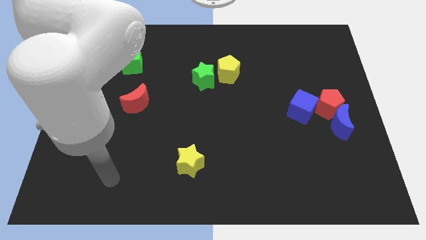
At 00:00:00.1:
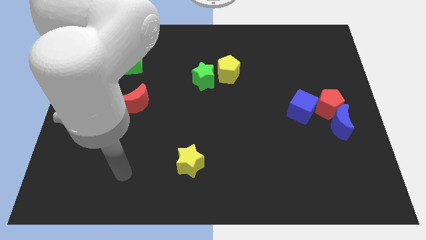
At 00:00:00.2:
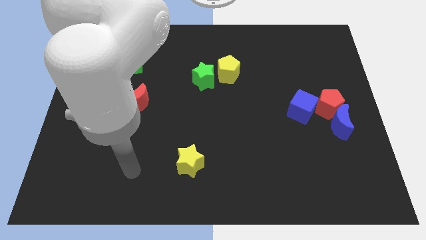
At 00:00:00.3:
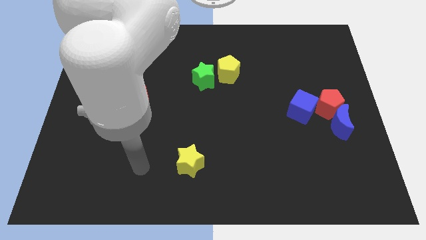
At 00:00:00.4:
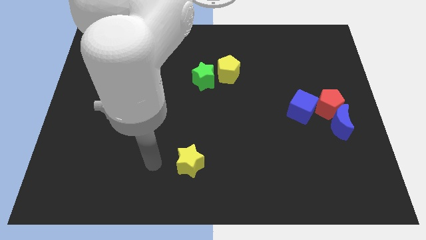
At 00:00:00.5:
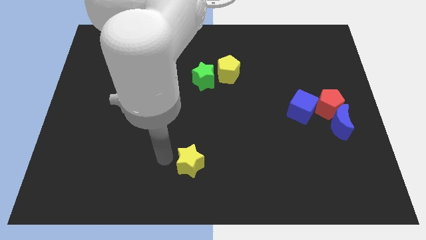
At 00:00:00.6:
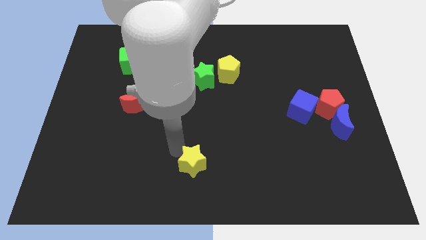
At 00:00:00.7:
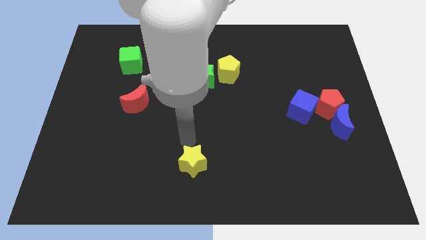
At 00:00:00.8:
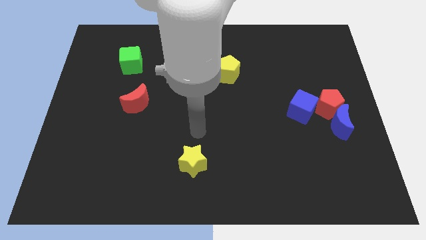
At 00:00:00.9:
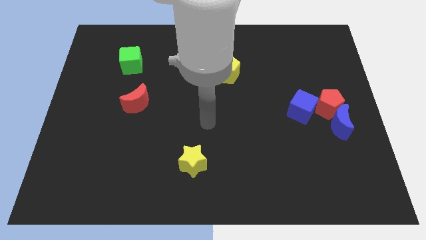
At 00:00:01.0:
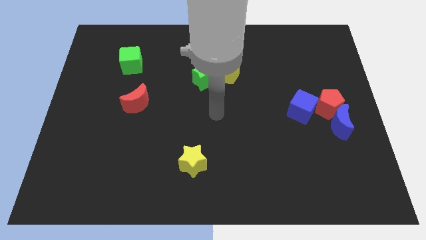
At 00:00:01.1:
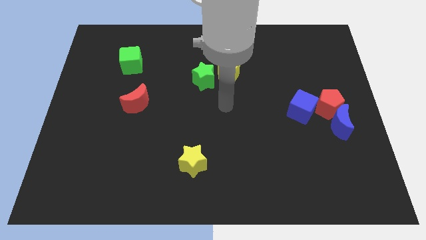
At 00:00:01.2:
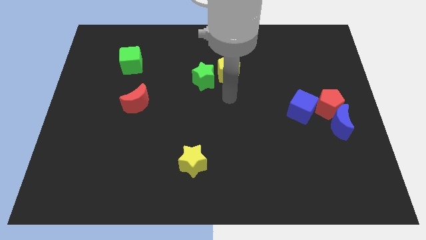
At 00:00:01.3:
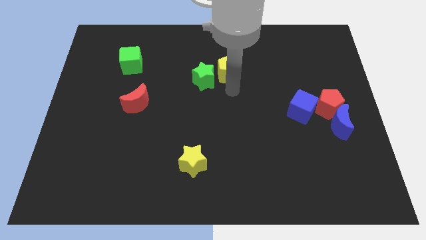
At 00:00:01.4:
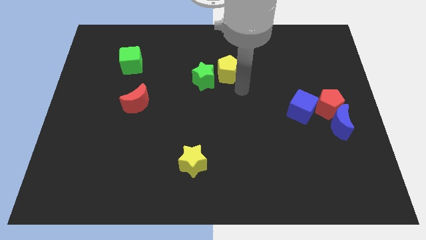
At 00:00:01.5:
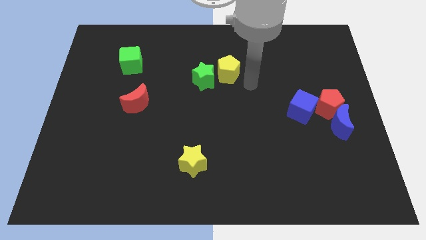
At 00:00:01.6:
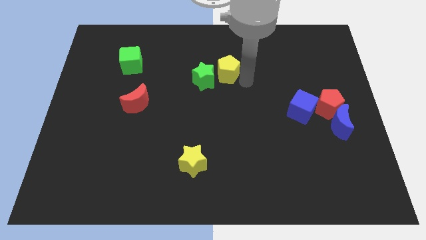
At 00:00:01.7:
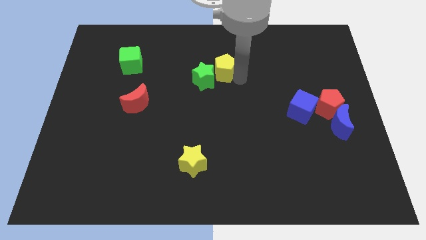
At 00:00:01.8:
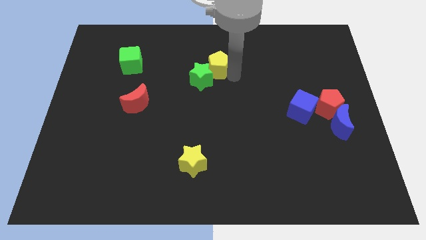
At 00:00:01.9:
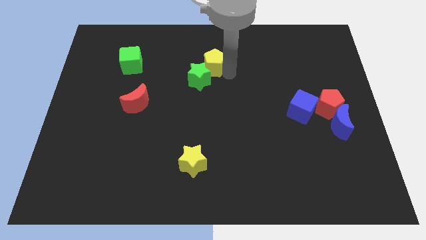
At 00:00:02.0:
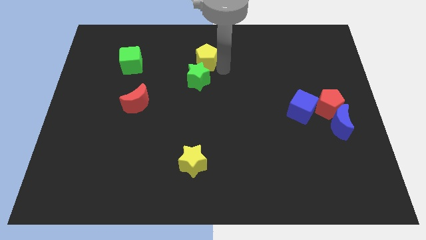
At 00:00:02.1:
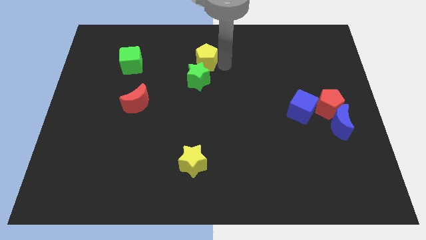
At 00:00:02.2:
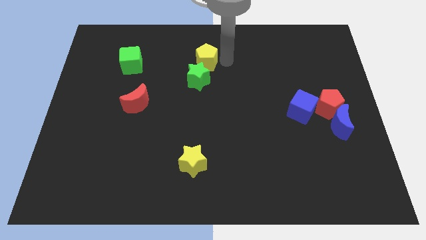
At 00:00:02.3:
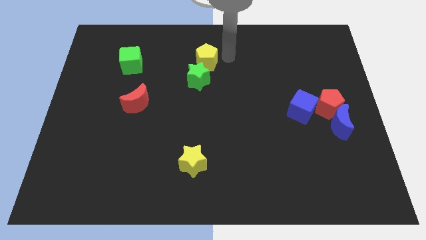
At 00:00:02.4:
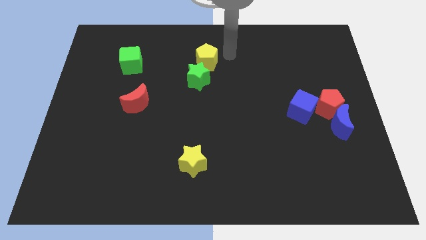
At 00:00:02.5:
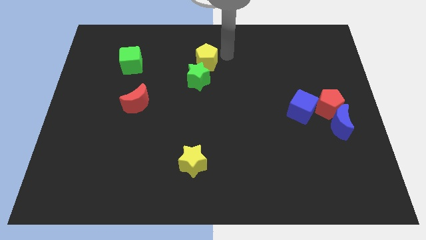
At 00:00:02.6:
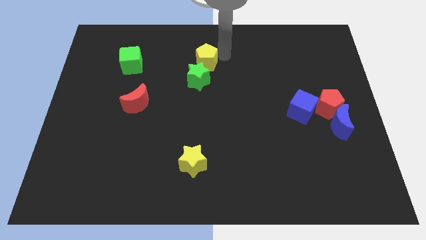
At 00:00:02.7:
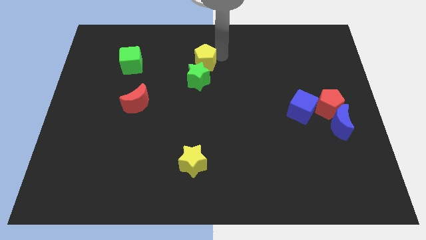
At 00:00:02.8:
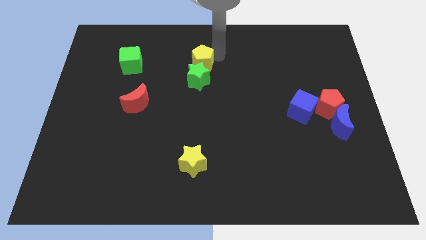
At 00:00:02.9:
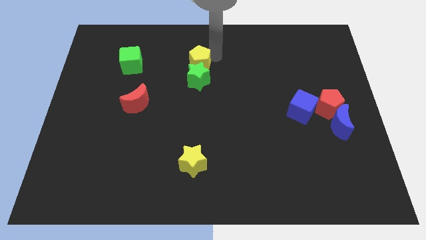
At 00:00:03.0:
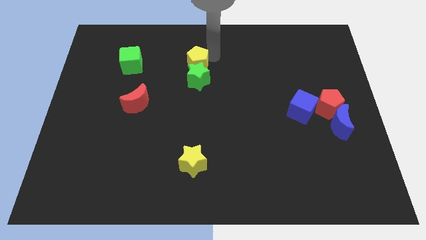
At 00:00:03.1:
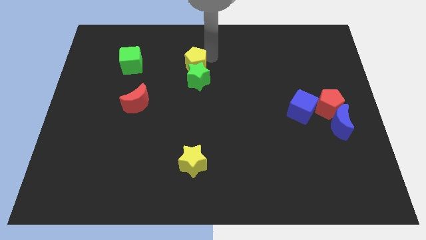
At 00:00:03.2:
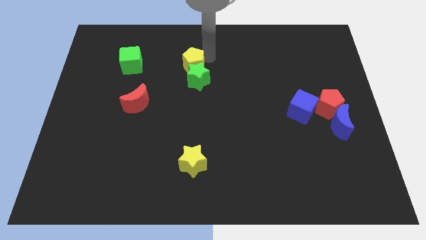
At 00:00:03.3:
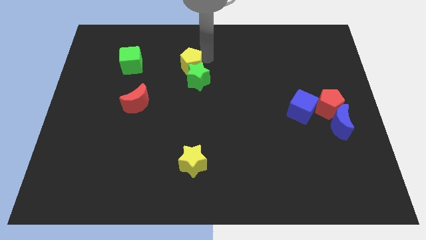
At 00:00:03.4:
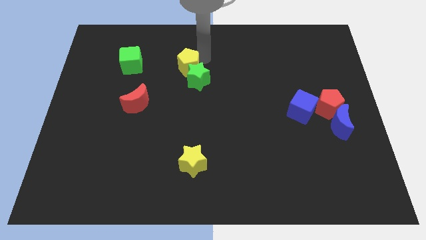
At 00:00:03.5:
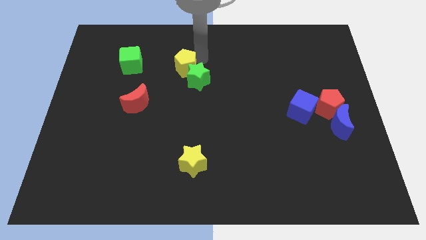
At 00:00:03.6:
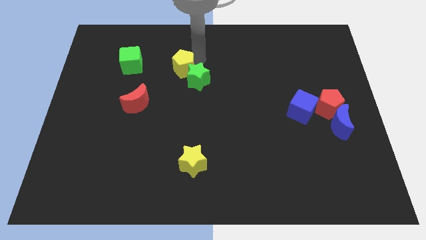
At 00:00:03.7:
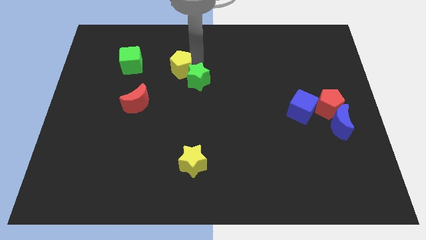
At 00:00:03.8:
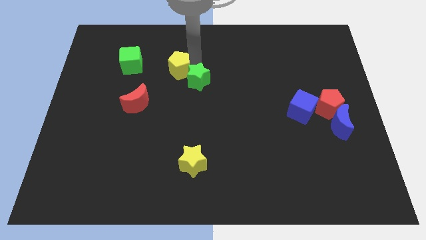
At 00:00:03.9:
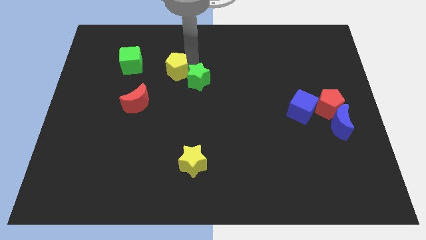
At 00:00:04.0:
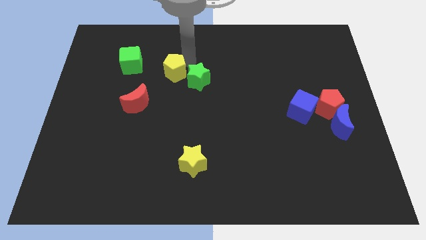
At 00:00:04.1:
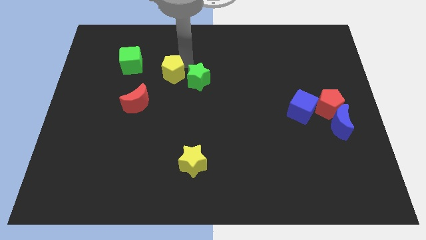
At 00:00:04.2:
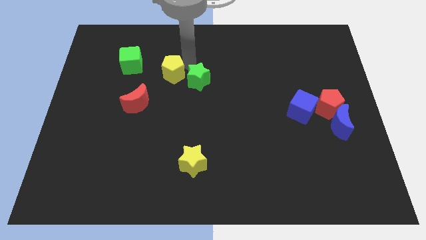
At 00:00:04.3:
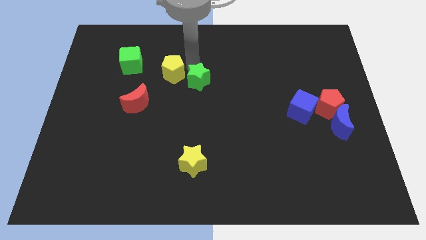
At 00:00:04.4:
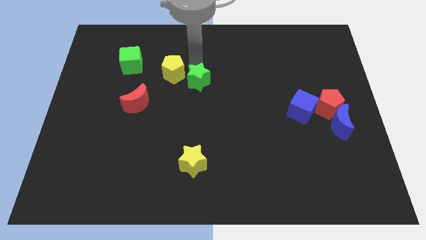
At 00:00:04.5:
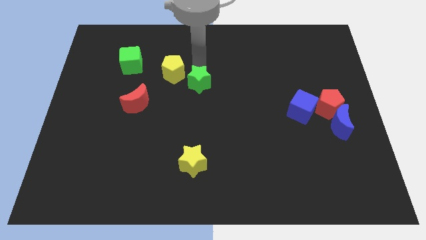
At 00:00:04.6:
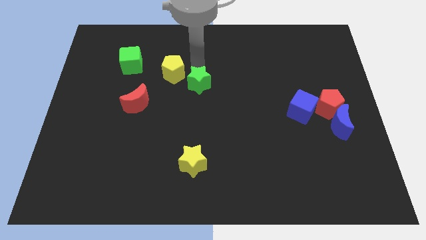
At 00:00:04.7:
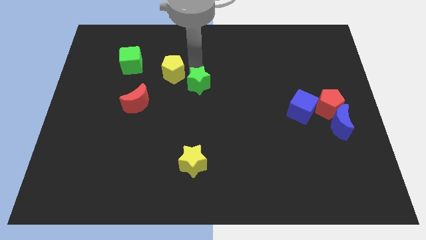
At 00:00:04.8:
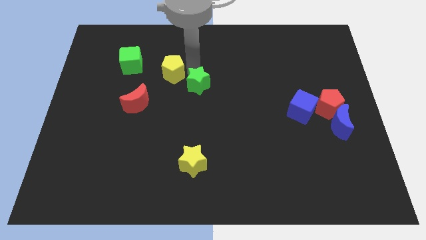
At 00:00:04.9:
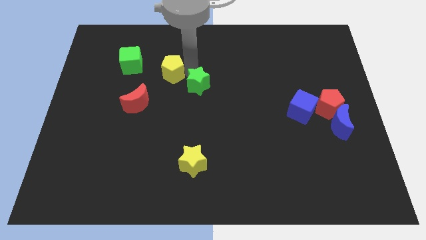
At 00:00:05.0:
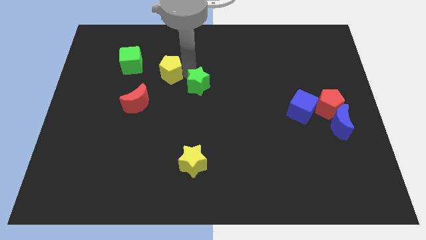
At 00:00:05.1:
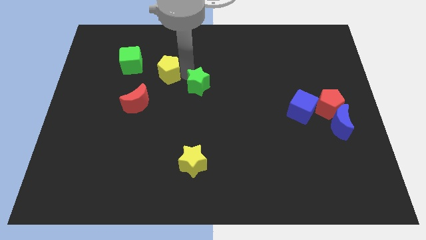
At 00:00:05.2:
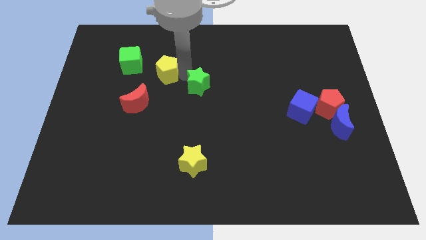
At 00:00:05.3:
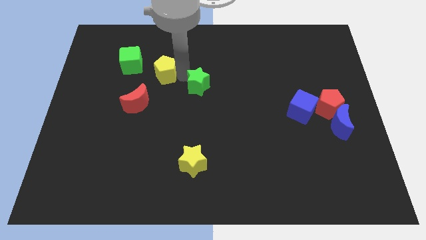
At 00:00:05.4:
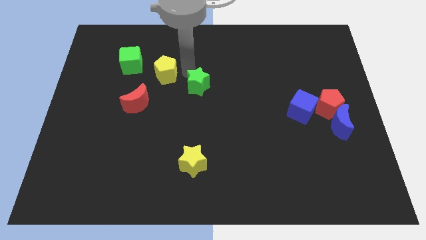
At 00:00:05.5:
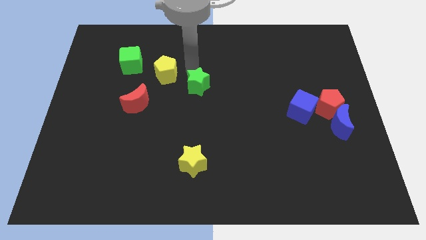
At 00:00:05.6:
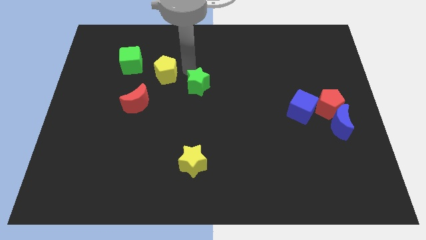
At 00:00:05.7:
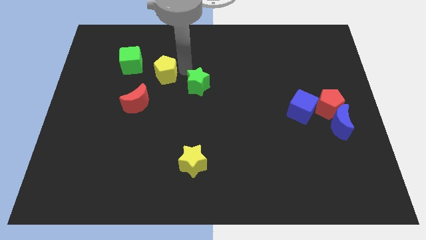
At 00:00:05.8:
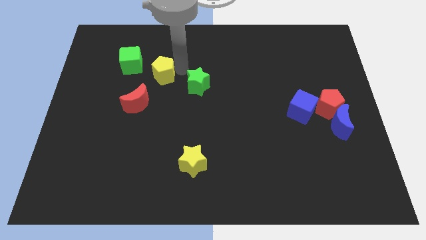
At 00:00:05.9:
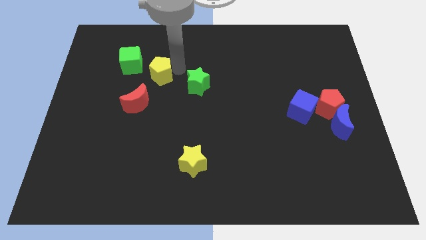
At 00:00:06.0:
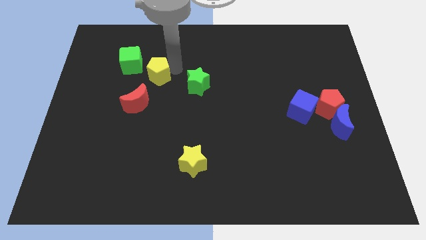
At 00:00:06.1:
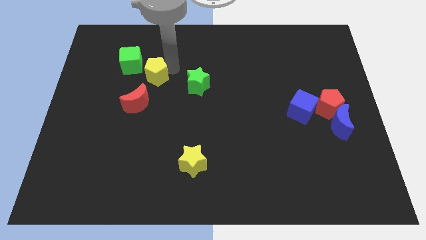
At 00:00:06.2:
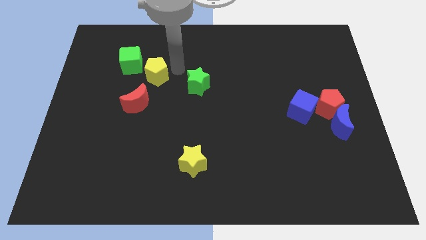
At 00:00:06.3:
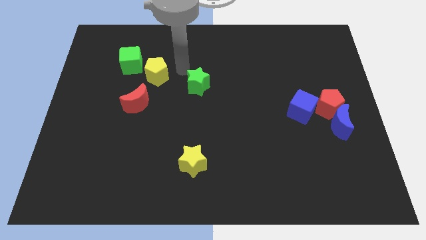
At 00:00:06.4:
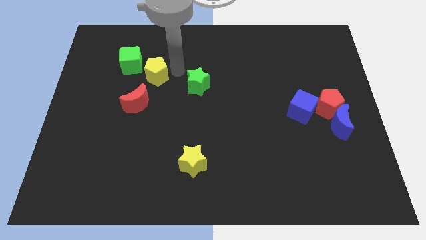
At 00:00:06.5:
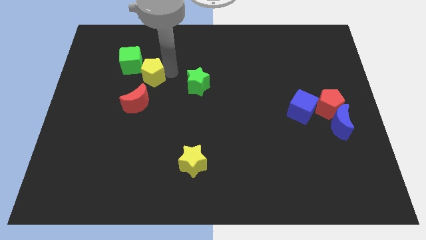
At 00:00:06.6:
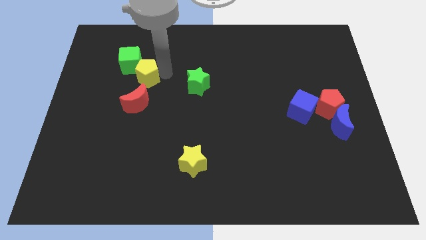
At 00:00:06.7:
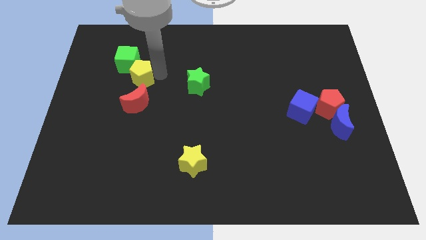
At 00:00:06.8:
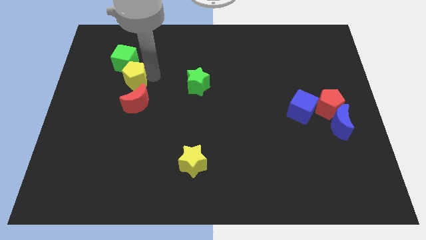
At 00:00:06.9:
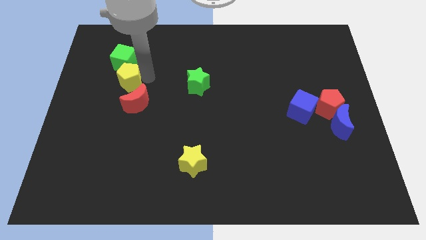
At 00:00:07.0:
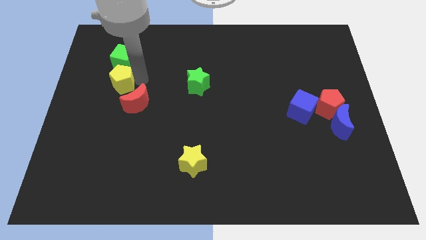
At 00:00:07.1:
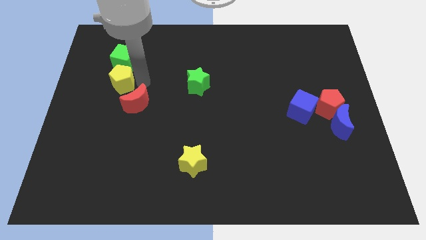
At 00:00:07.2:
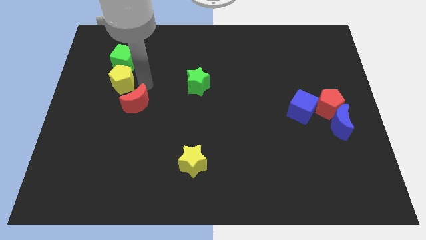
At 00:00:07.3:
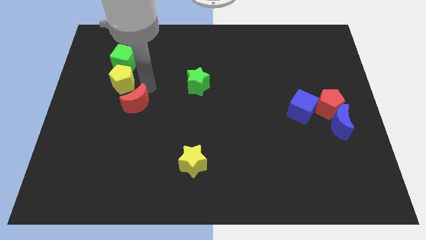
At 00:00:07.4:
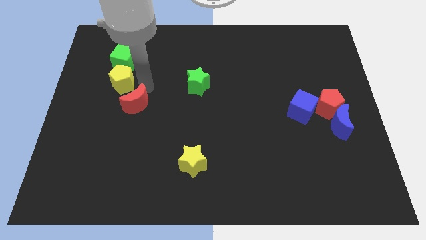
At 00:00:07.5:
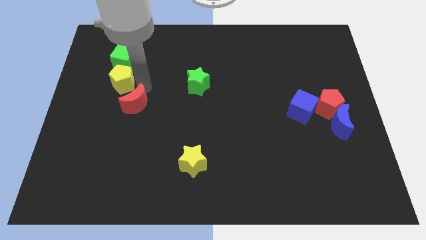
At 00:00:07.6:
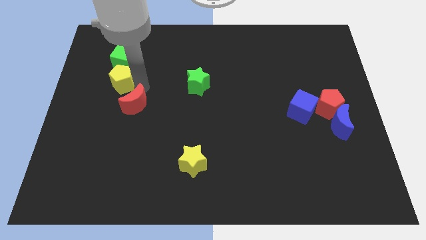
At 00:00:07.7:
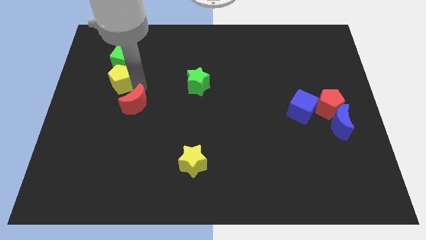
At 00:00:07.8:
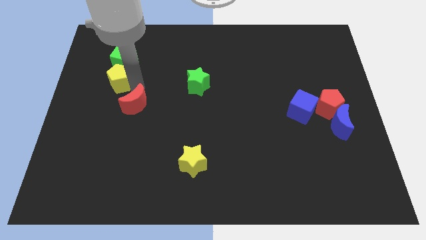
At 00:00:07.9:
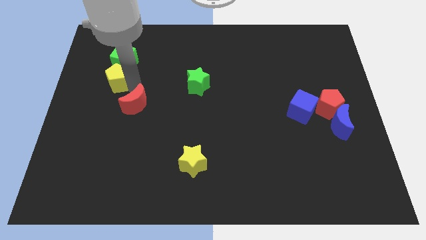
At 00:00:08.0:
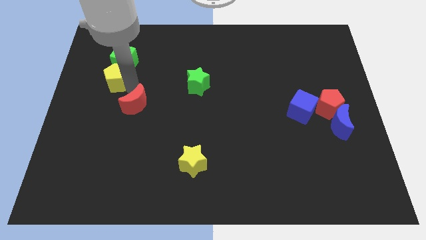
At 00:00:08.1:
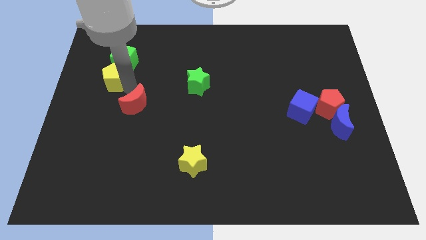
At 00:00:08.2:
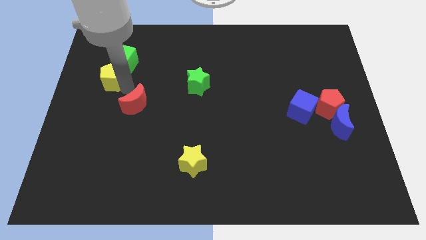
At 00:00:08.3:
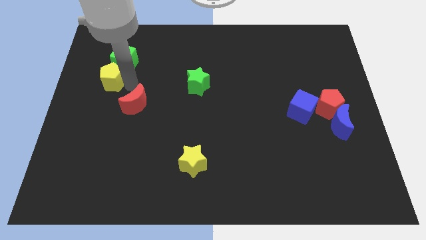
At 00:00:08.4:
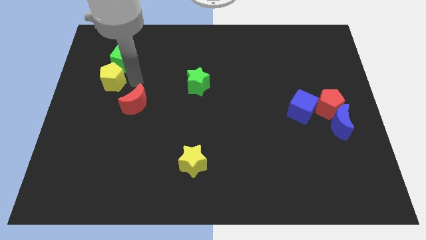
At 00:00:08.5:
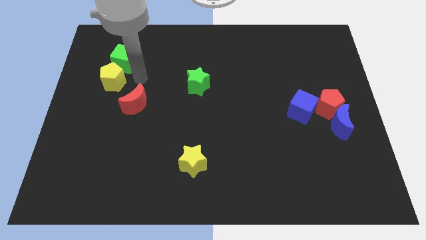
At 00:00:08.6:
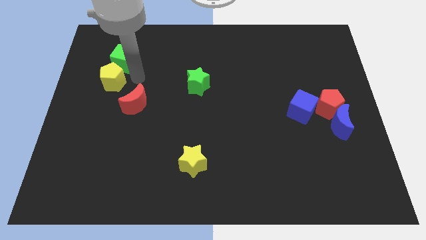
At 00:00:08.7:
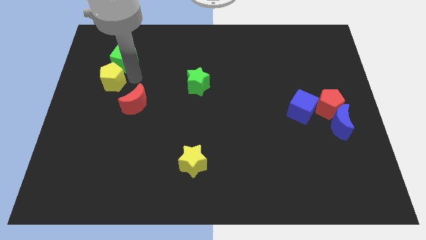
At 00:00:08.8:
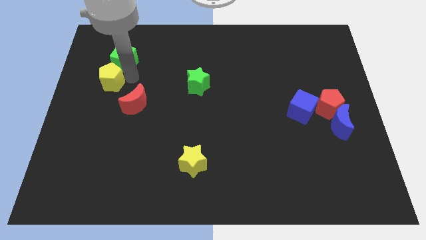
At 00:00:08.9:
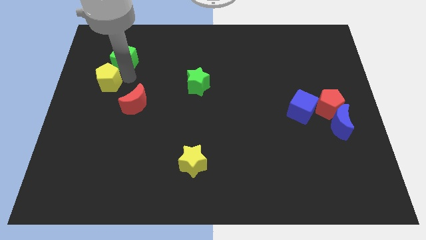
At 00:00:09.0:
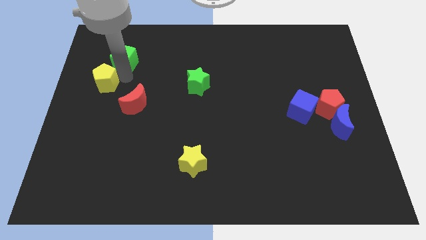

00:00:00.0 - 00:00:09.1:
push the yellow pentagon to the left side
